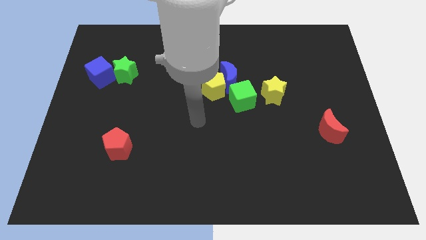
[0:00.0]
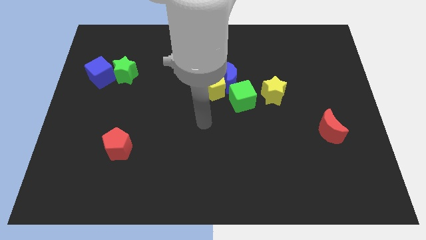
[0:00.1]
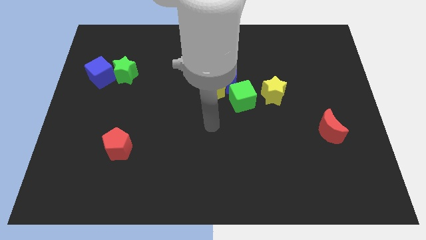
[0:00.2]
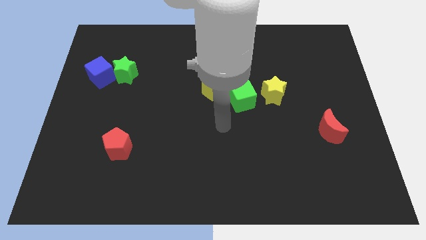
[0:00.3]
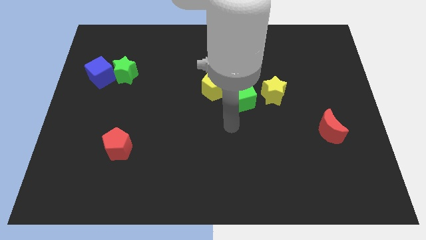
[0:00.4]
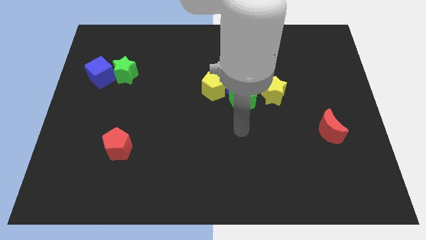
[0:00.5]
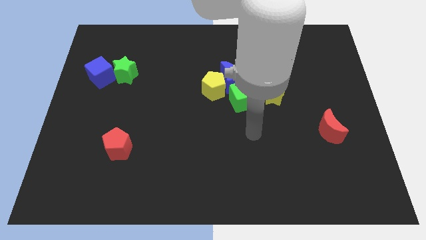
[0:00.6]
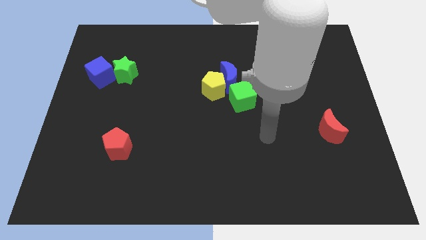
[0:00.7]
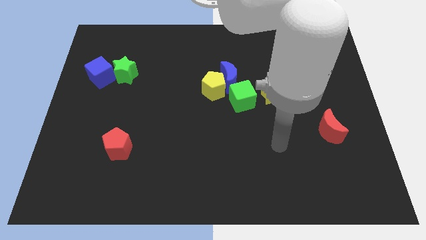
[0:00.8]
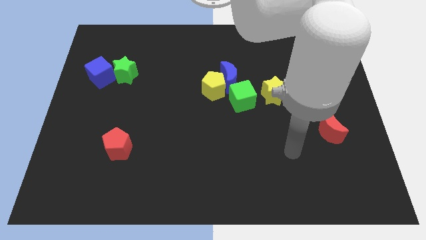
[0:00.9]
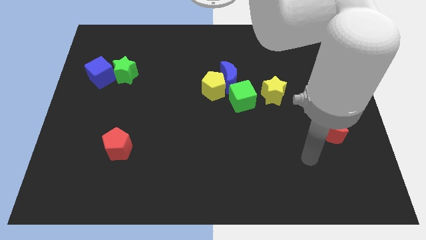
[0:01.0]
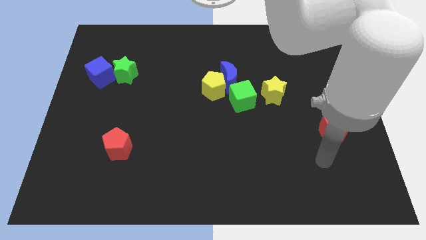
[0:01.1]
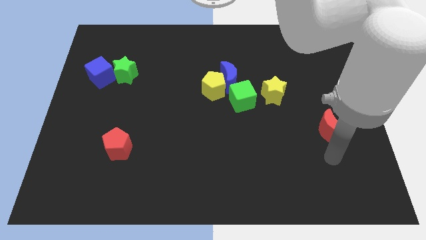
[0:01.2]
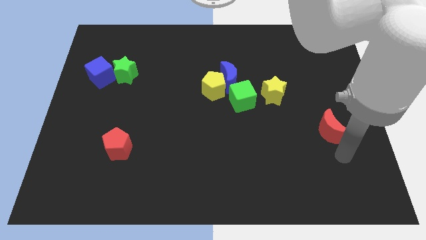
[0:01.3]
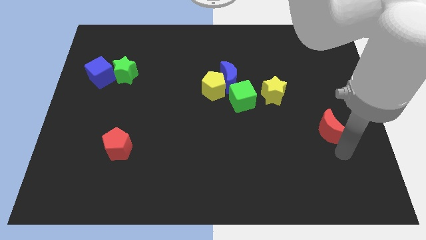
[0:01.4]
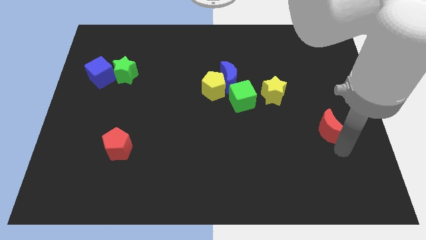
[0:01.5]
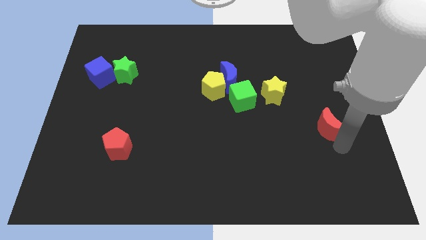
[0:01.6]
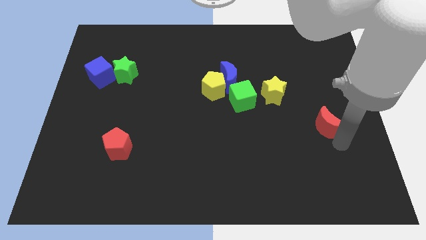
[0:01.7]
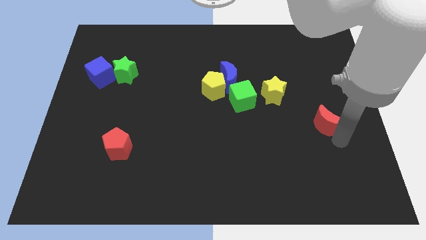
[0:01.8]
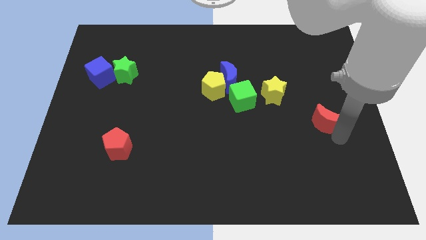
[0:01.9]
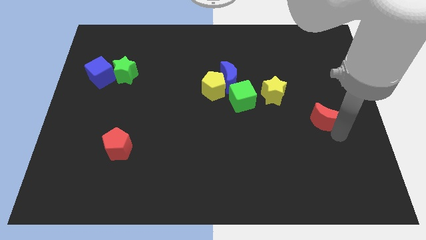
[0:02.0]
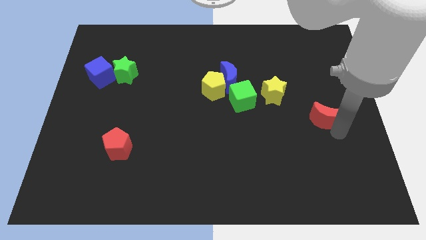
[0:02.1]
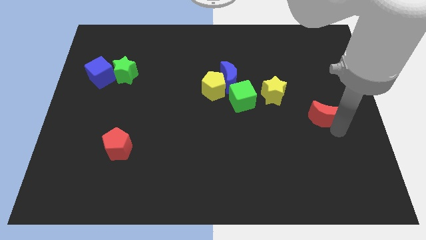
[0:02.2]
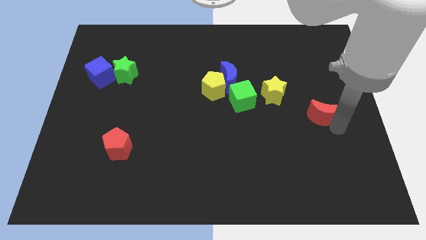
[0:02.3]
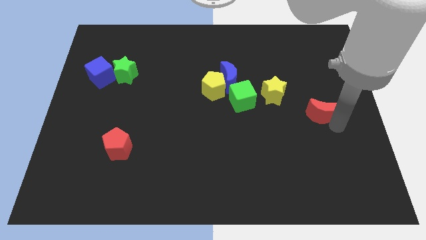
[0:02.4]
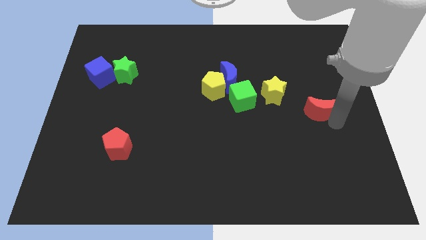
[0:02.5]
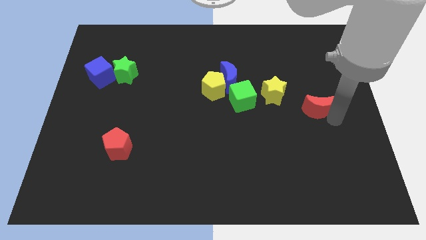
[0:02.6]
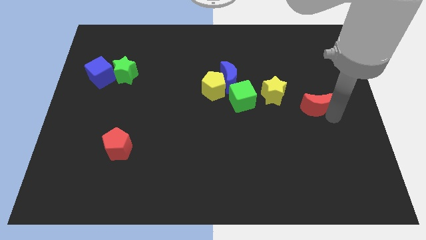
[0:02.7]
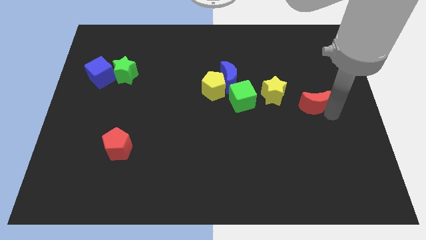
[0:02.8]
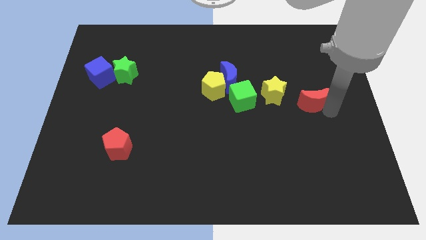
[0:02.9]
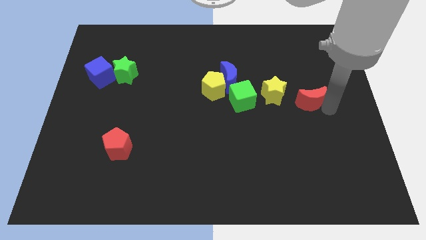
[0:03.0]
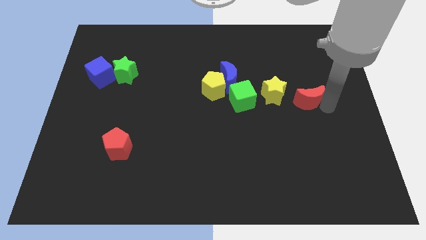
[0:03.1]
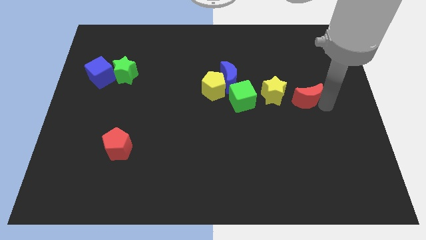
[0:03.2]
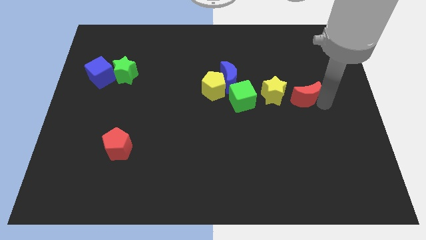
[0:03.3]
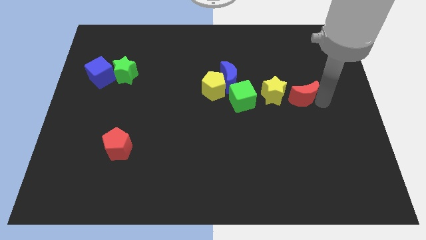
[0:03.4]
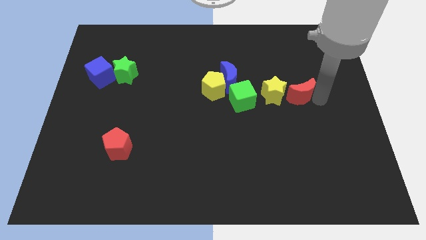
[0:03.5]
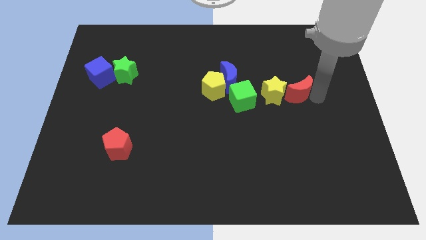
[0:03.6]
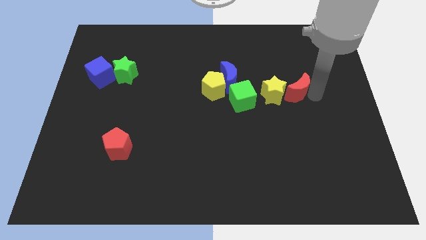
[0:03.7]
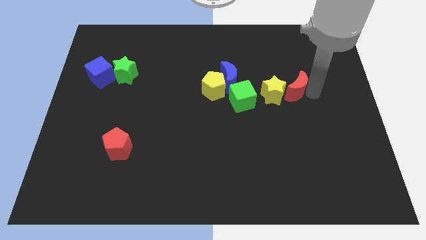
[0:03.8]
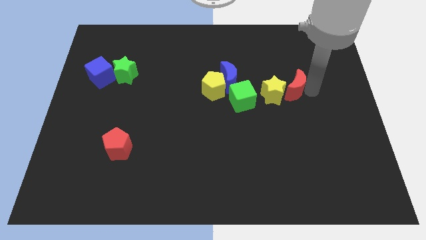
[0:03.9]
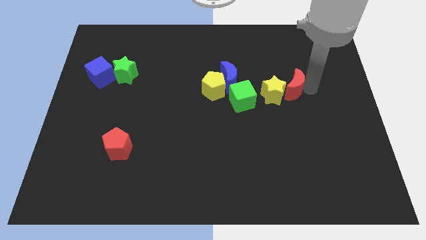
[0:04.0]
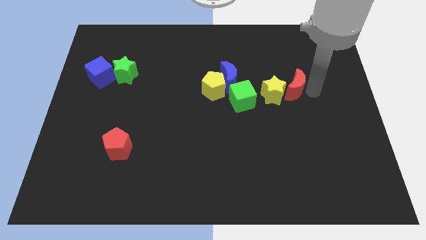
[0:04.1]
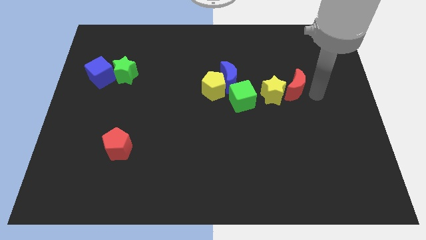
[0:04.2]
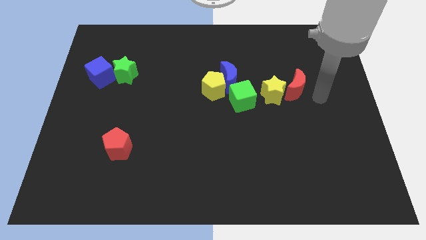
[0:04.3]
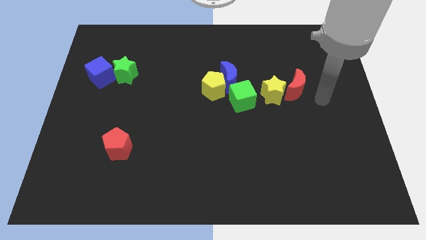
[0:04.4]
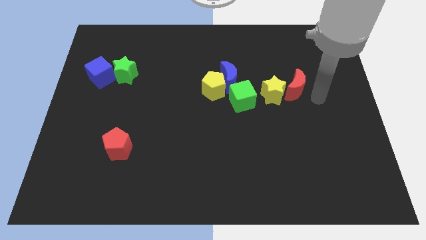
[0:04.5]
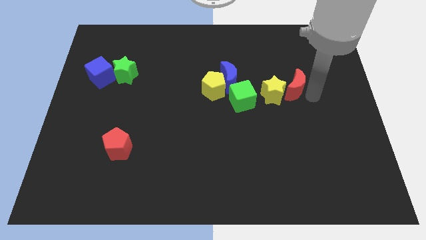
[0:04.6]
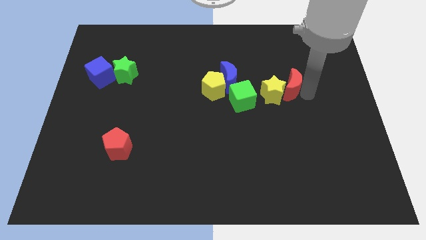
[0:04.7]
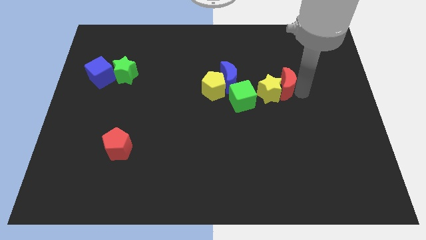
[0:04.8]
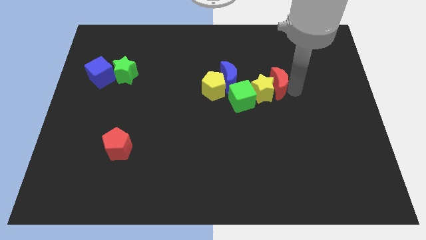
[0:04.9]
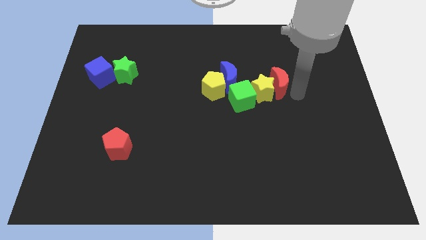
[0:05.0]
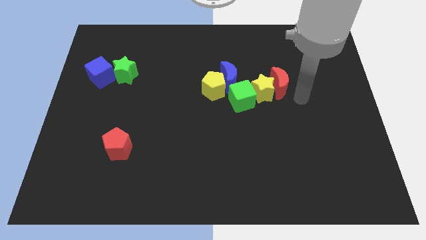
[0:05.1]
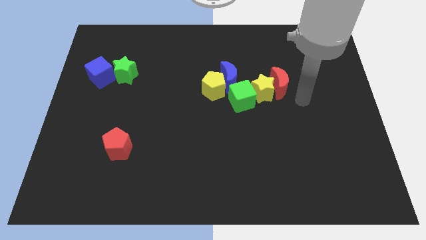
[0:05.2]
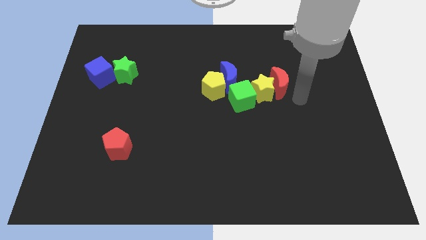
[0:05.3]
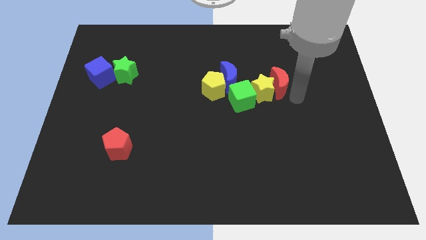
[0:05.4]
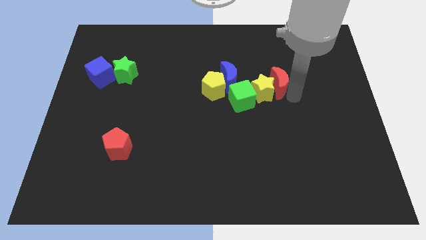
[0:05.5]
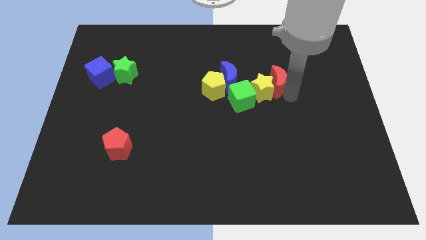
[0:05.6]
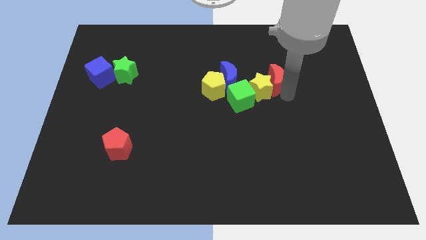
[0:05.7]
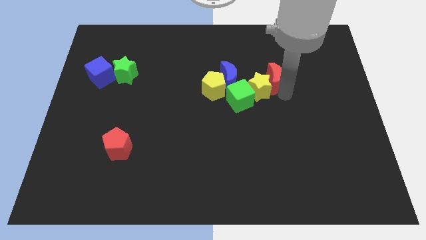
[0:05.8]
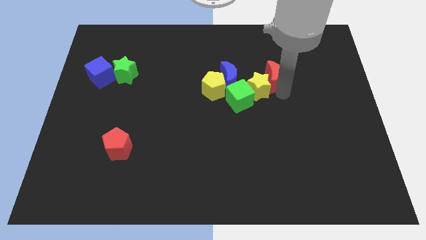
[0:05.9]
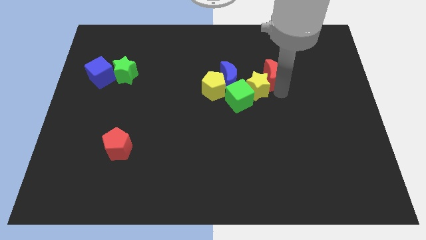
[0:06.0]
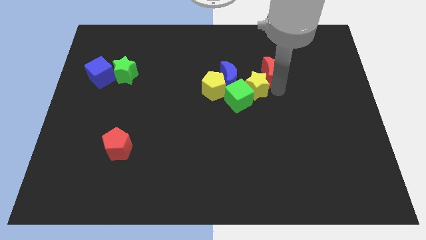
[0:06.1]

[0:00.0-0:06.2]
move the red moon up and left

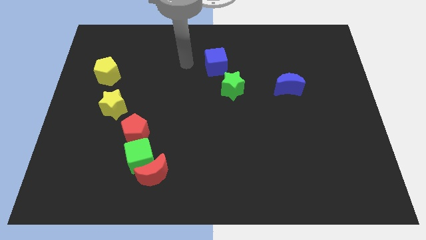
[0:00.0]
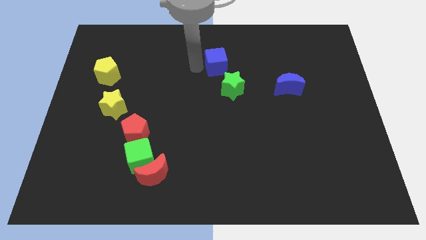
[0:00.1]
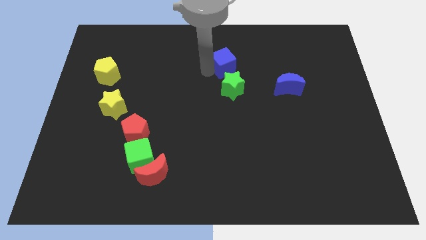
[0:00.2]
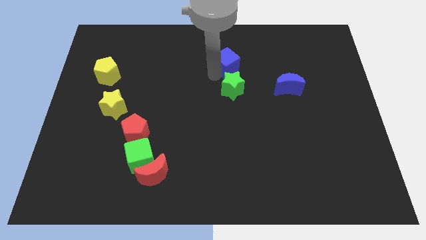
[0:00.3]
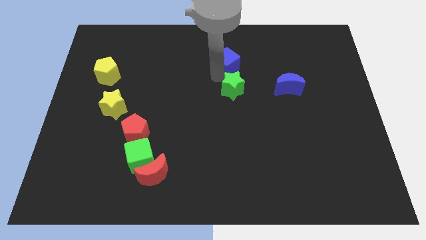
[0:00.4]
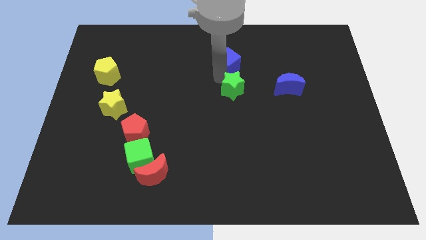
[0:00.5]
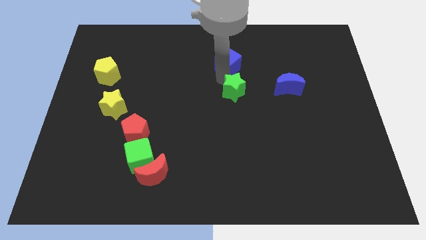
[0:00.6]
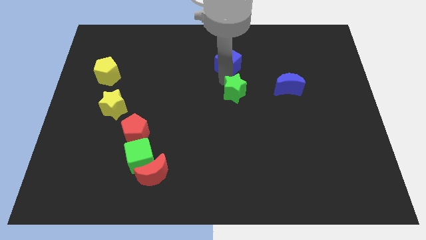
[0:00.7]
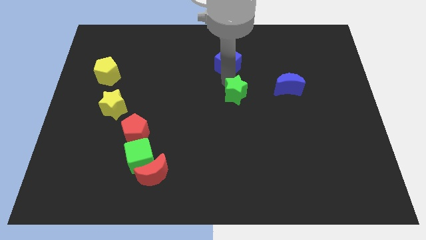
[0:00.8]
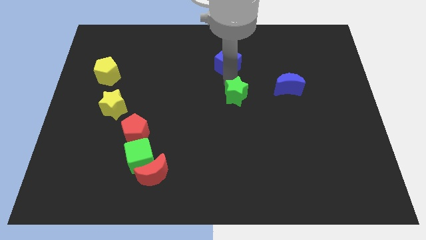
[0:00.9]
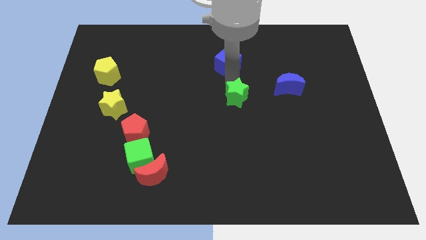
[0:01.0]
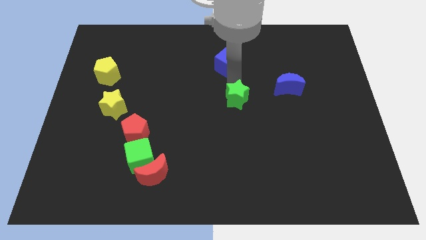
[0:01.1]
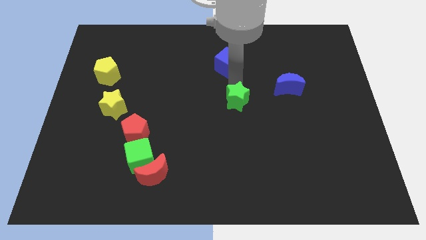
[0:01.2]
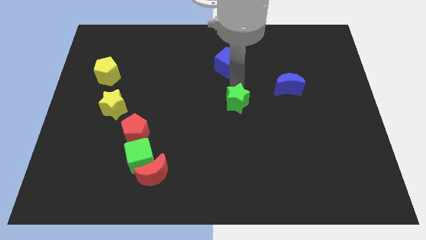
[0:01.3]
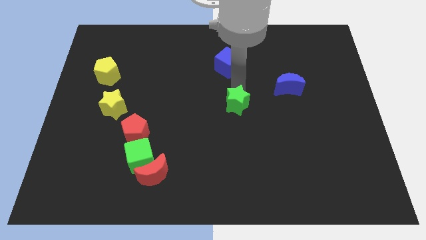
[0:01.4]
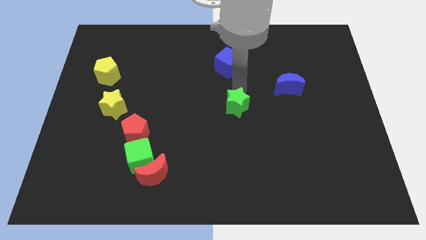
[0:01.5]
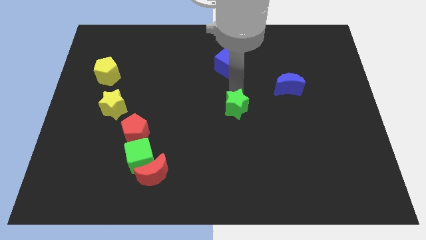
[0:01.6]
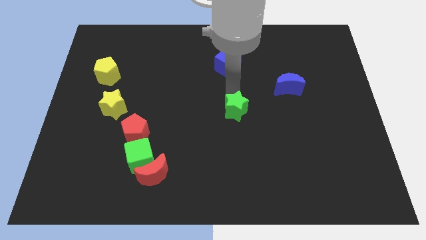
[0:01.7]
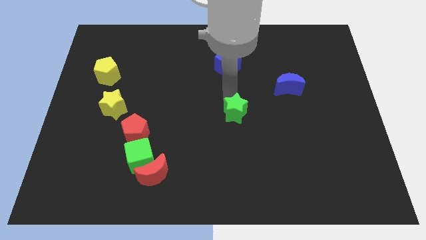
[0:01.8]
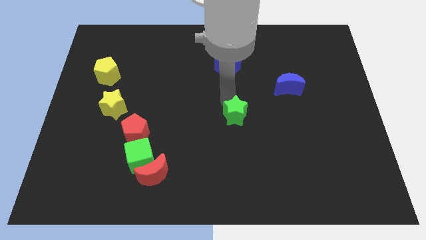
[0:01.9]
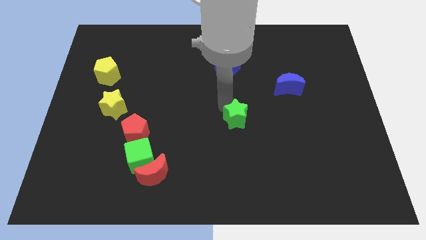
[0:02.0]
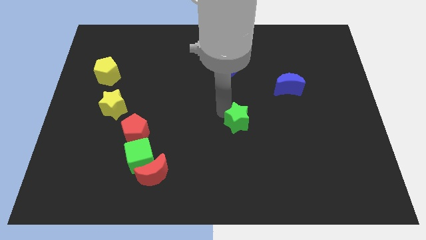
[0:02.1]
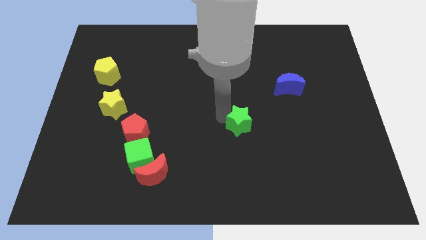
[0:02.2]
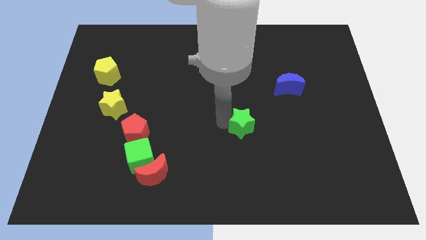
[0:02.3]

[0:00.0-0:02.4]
slide the green star slightly diagonally downwards and to the right
